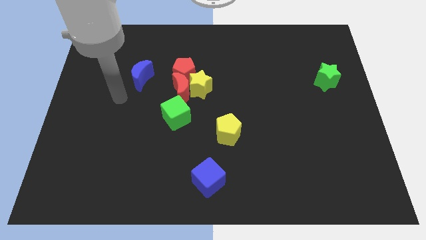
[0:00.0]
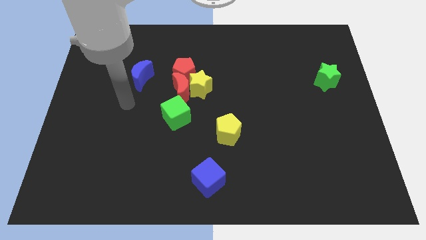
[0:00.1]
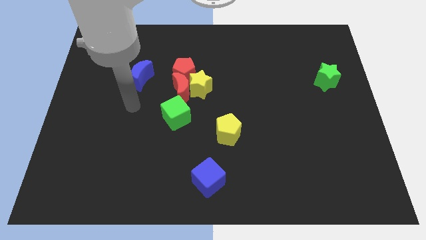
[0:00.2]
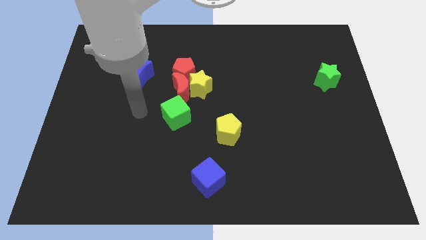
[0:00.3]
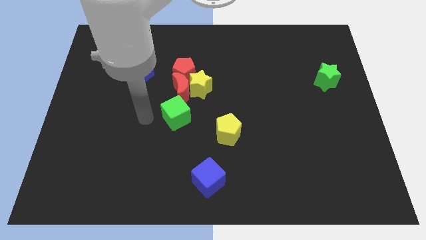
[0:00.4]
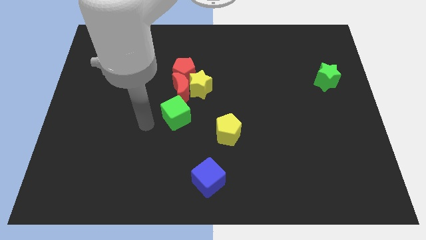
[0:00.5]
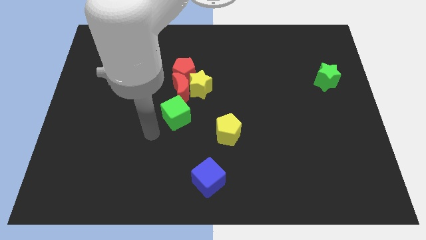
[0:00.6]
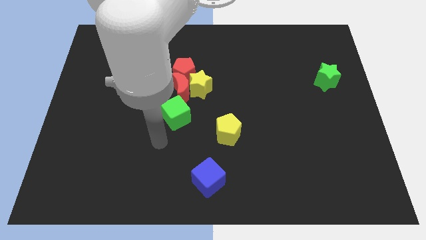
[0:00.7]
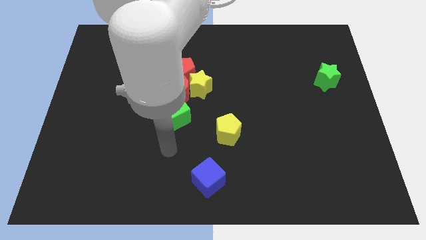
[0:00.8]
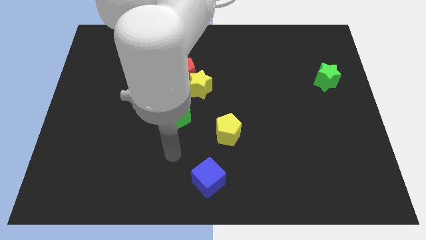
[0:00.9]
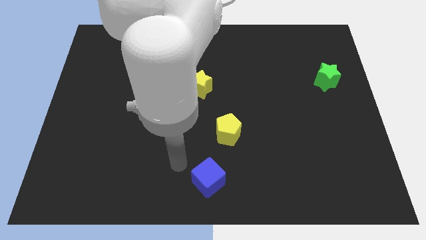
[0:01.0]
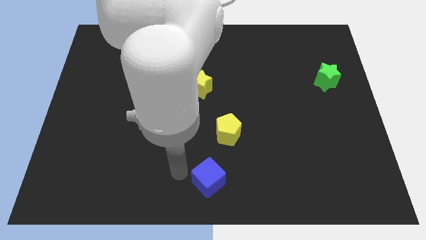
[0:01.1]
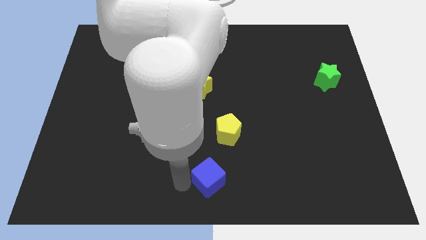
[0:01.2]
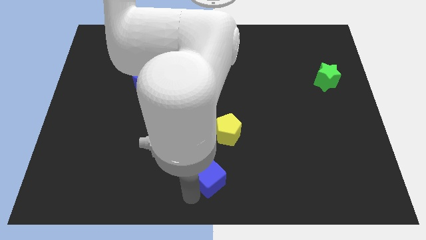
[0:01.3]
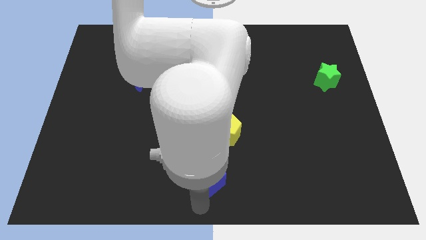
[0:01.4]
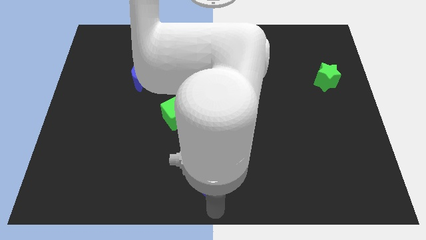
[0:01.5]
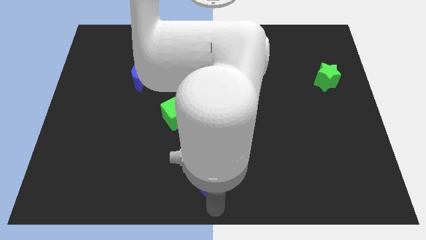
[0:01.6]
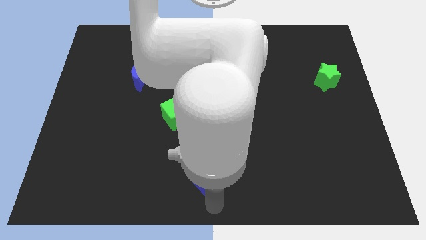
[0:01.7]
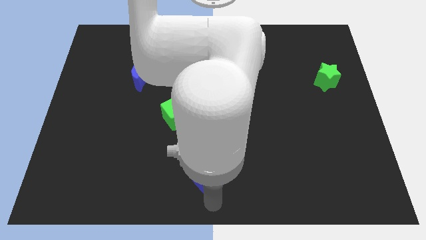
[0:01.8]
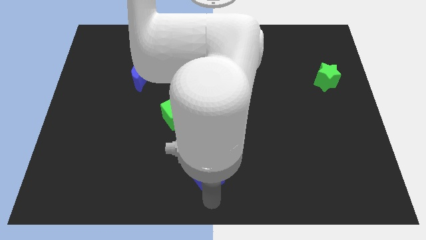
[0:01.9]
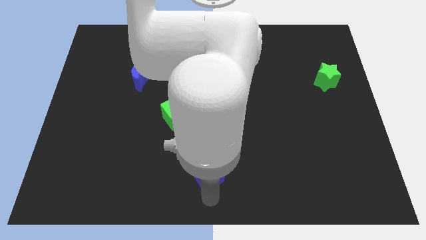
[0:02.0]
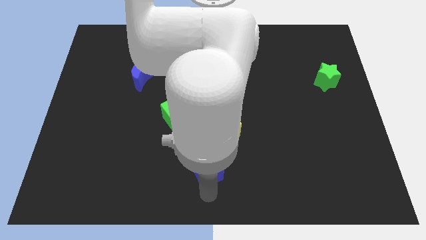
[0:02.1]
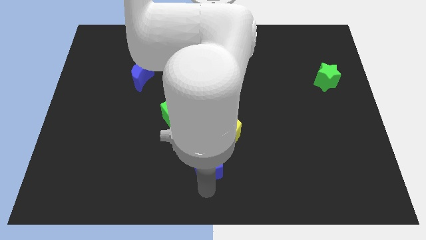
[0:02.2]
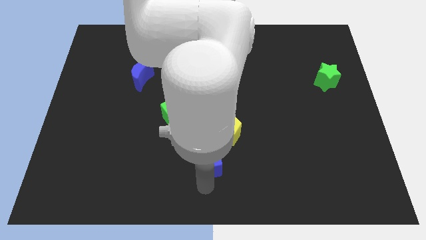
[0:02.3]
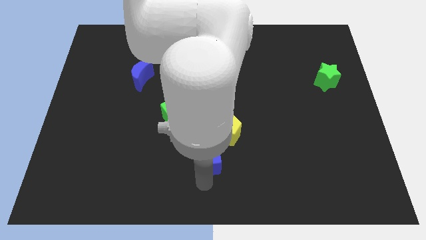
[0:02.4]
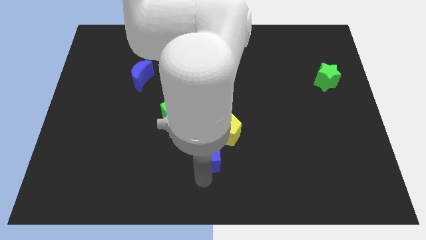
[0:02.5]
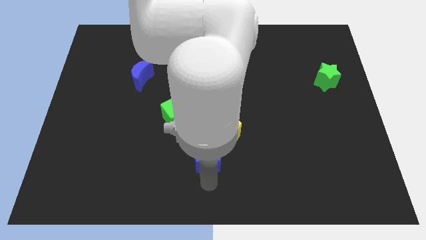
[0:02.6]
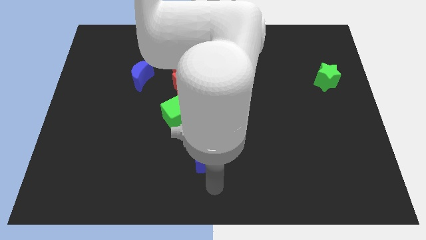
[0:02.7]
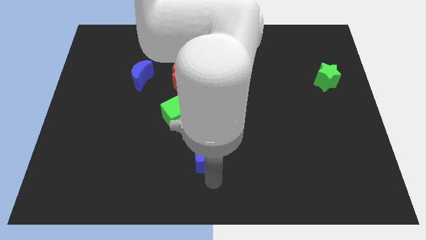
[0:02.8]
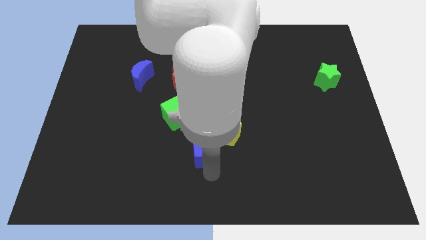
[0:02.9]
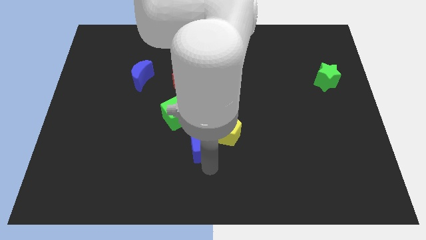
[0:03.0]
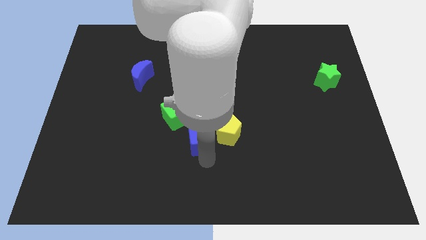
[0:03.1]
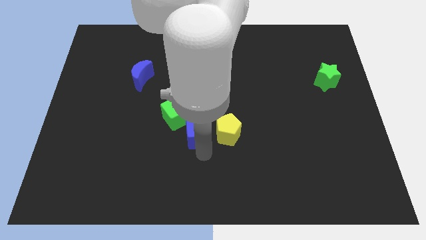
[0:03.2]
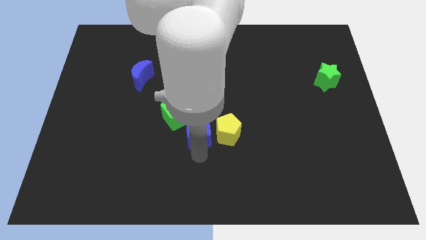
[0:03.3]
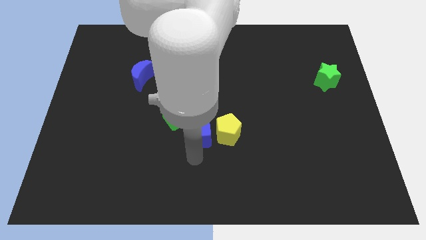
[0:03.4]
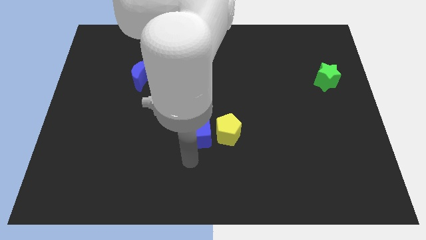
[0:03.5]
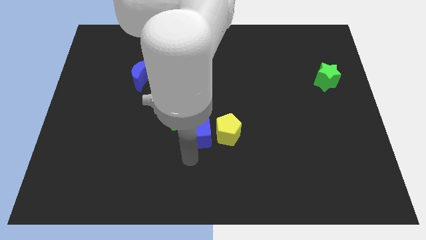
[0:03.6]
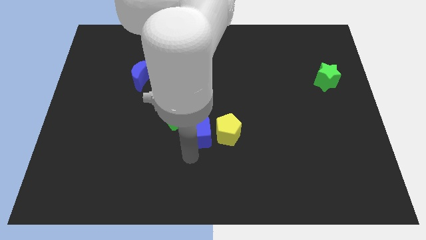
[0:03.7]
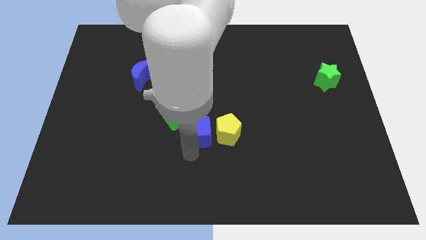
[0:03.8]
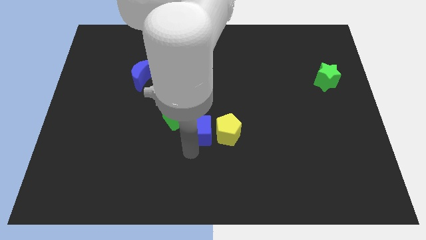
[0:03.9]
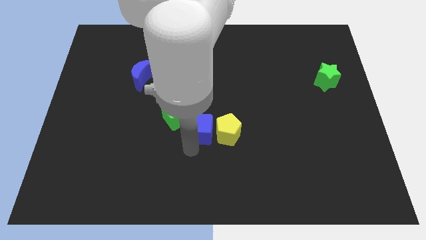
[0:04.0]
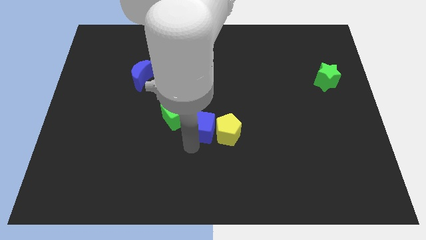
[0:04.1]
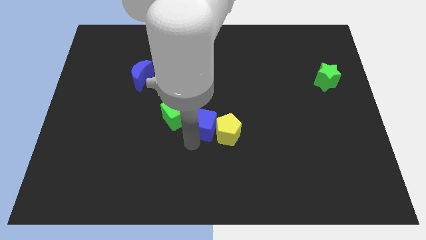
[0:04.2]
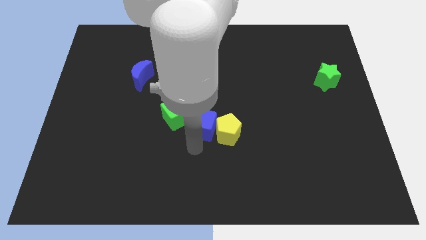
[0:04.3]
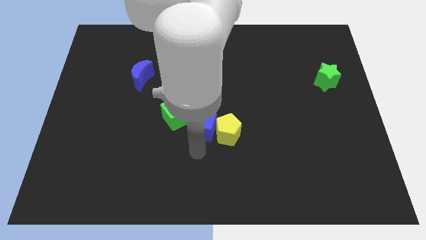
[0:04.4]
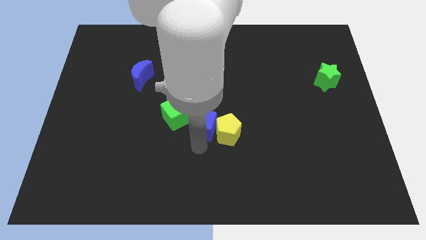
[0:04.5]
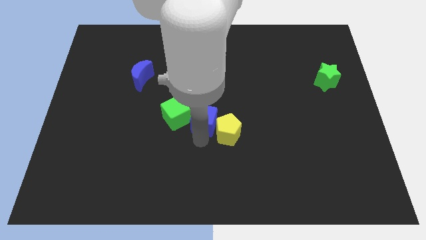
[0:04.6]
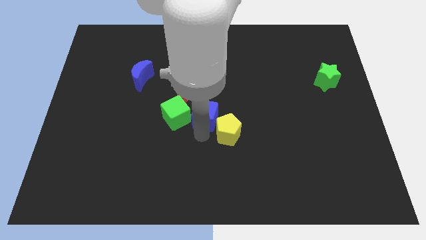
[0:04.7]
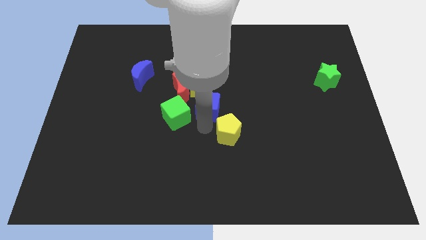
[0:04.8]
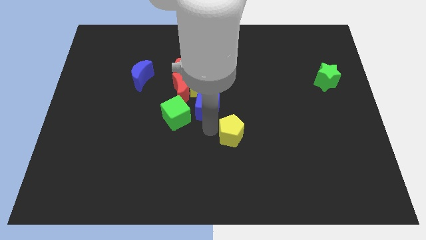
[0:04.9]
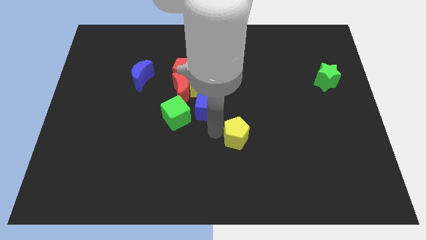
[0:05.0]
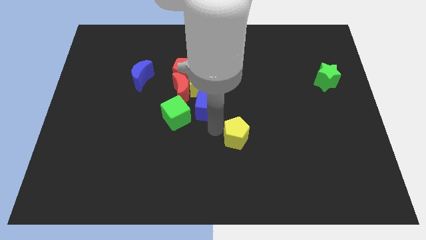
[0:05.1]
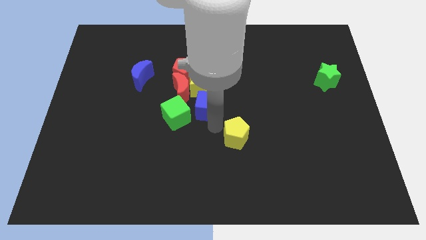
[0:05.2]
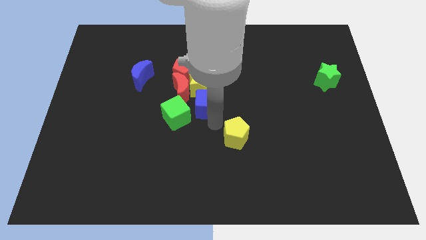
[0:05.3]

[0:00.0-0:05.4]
push the blue cube next to the yellow star

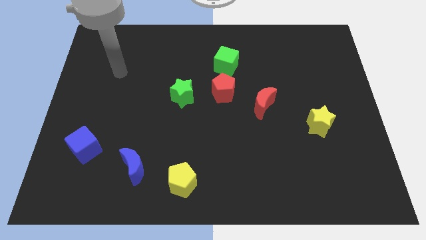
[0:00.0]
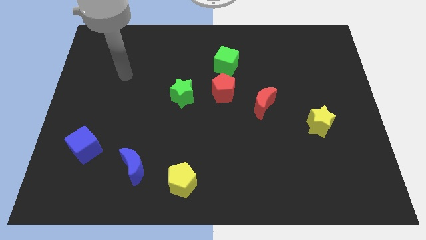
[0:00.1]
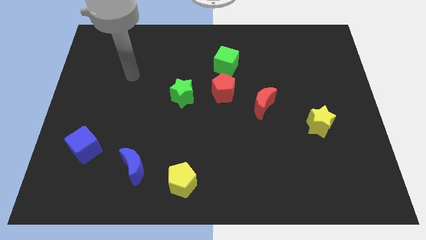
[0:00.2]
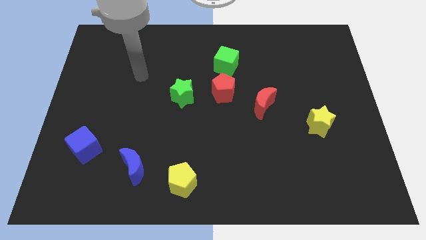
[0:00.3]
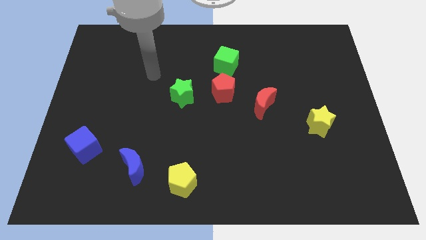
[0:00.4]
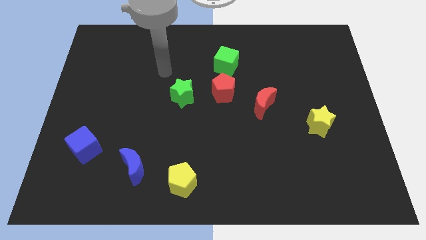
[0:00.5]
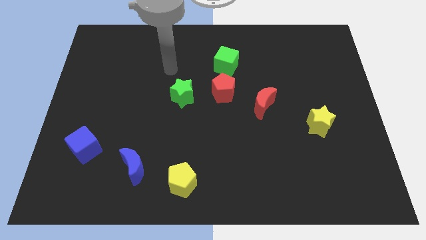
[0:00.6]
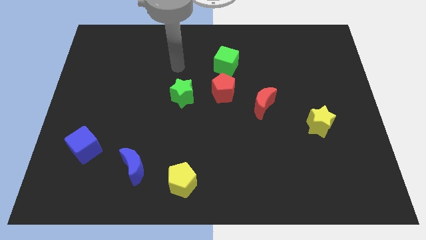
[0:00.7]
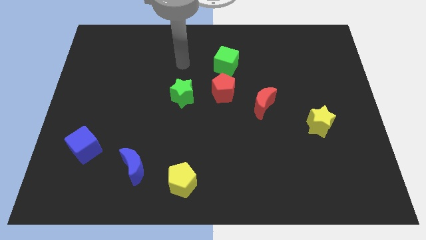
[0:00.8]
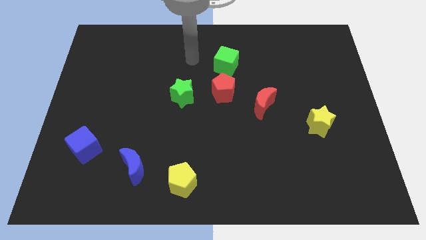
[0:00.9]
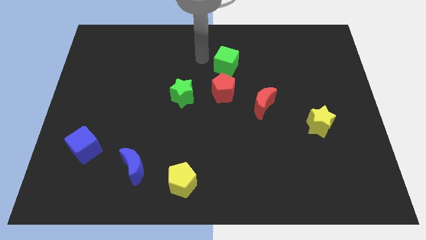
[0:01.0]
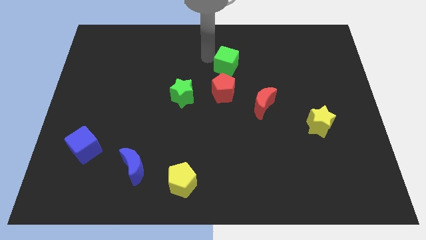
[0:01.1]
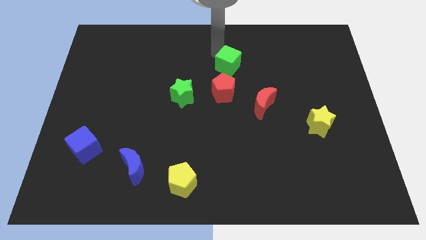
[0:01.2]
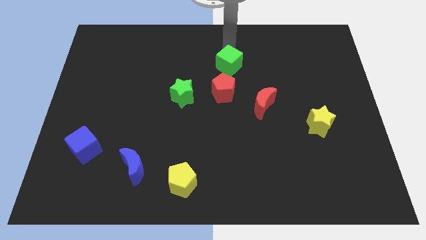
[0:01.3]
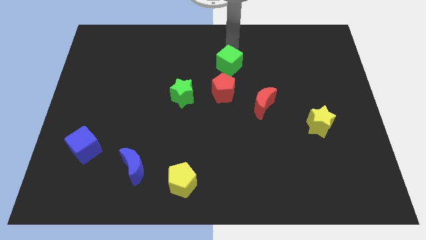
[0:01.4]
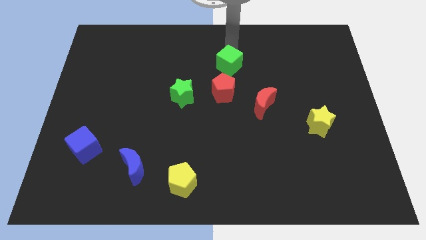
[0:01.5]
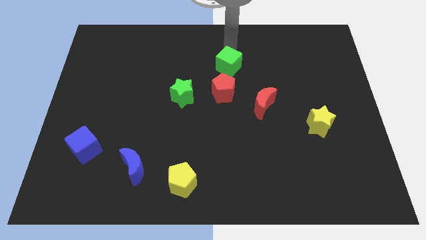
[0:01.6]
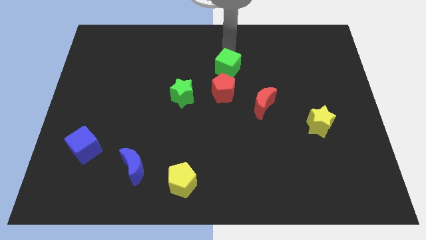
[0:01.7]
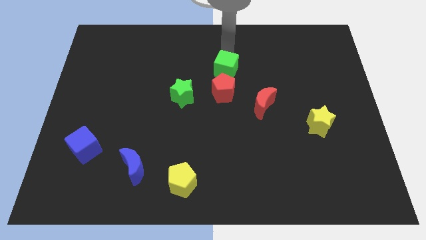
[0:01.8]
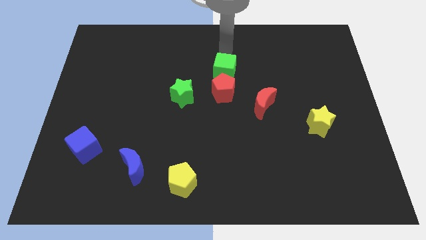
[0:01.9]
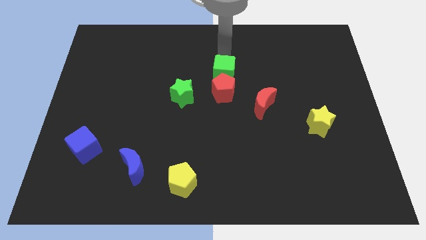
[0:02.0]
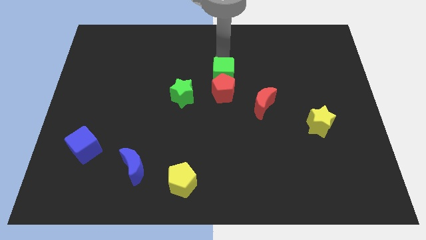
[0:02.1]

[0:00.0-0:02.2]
slide the green cube towards the red pentagon
